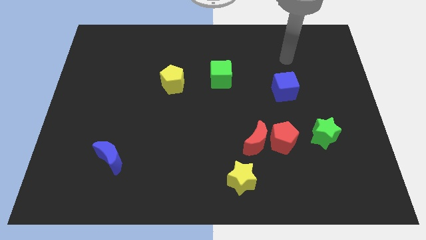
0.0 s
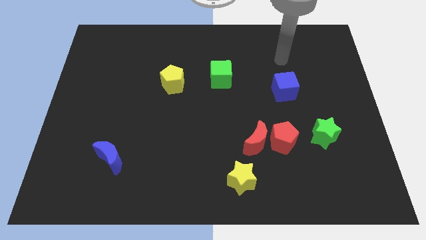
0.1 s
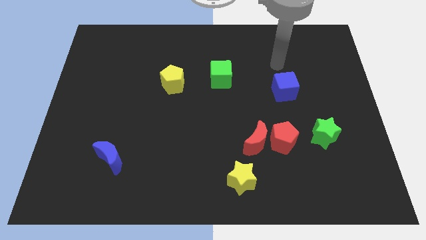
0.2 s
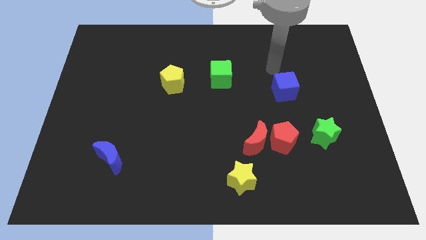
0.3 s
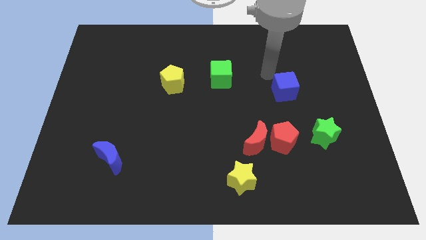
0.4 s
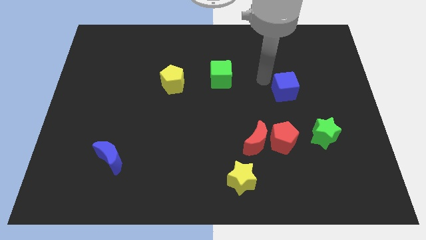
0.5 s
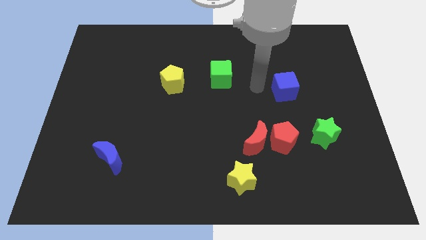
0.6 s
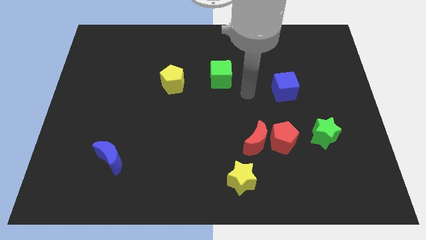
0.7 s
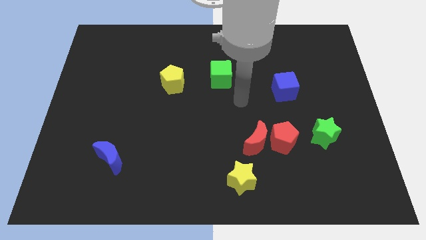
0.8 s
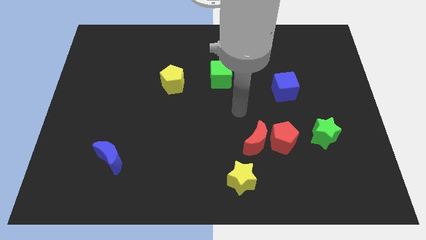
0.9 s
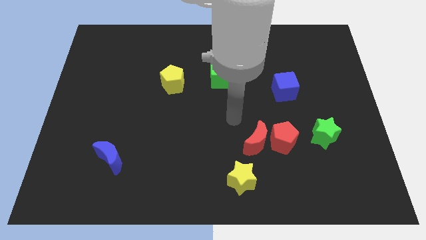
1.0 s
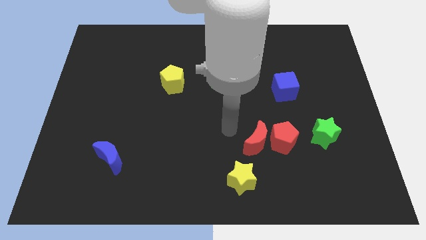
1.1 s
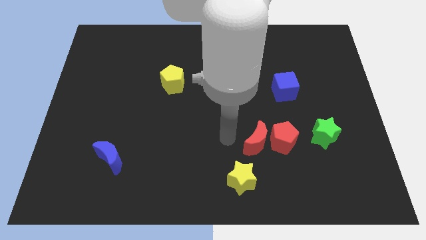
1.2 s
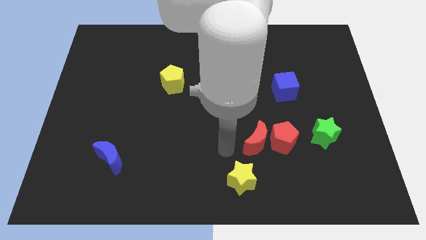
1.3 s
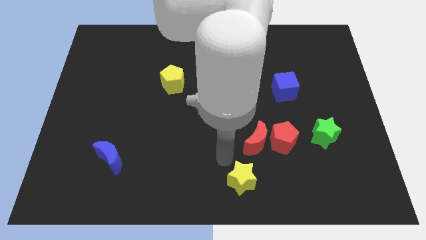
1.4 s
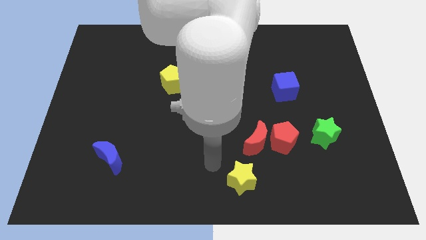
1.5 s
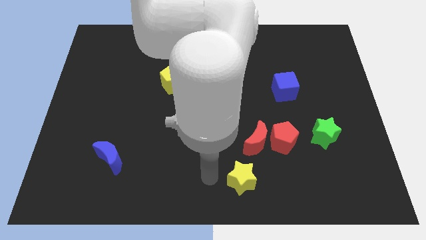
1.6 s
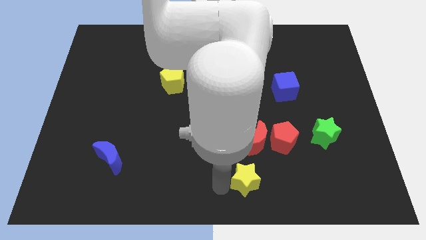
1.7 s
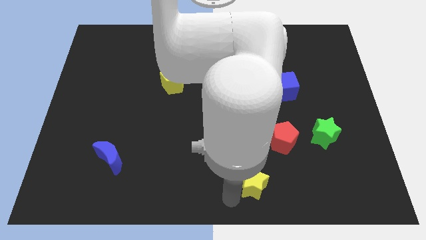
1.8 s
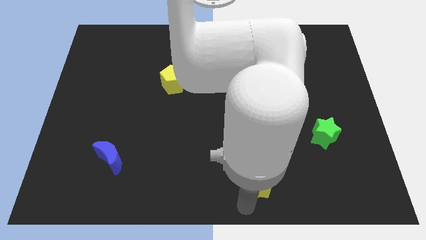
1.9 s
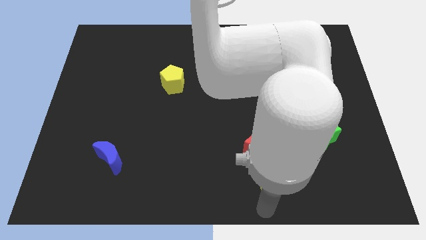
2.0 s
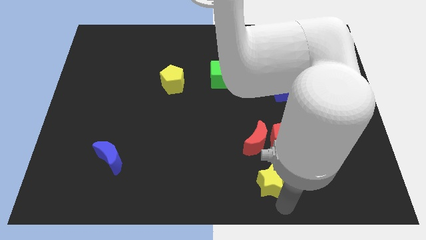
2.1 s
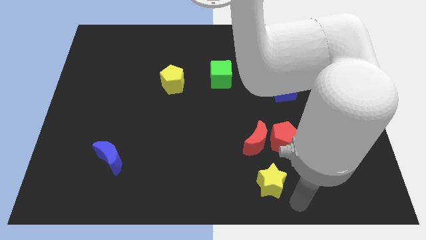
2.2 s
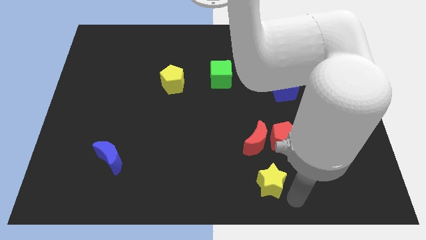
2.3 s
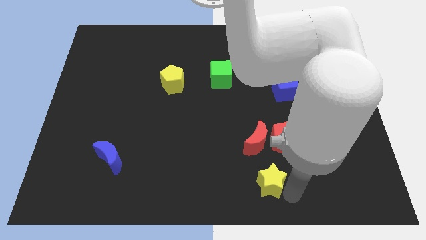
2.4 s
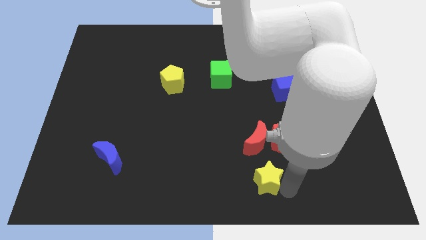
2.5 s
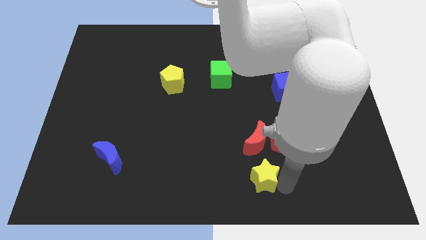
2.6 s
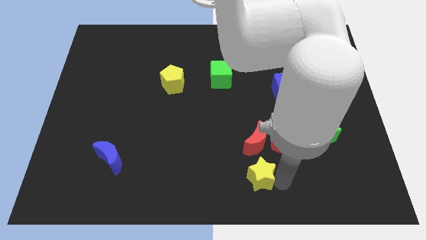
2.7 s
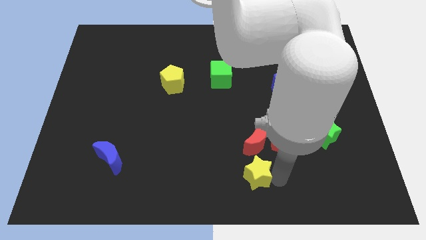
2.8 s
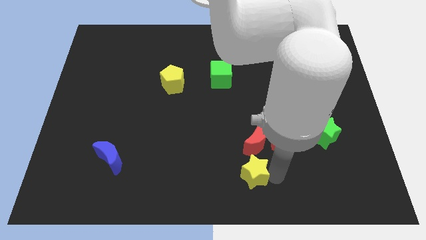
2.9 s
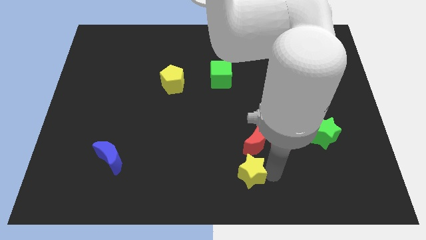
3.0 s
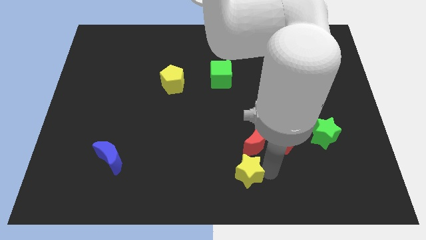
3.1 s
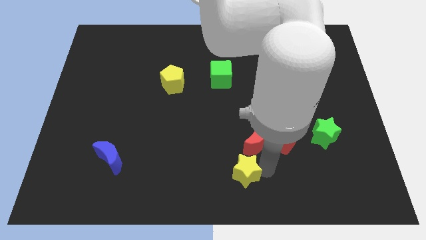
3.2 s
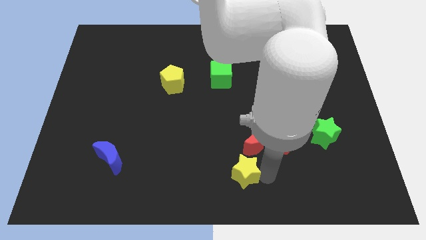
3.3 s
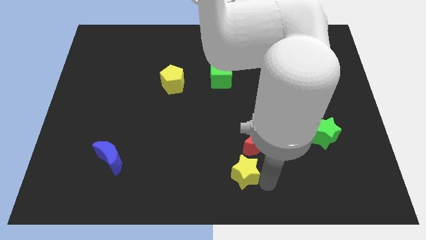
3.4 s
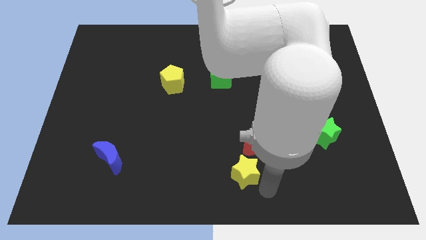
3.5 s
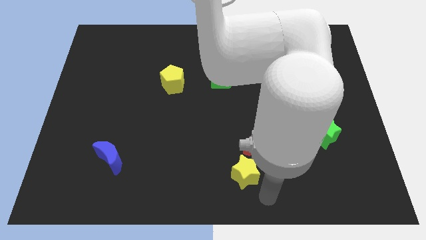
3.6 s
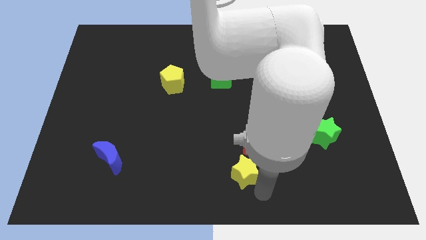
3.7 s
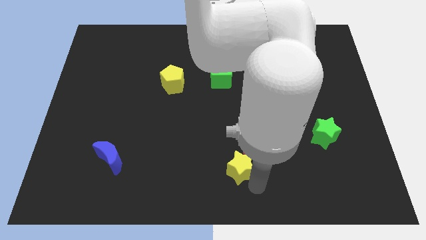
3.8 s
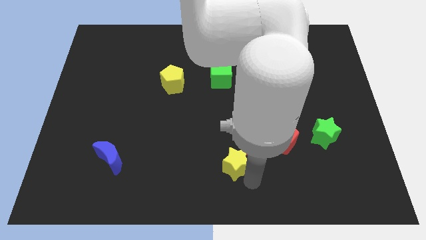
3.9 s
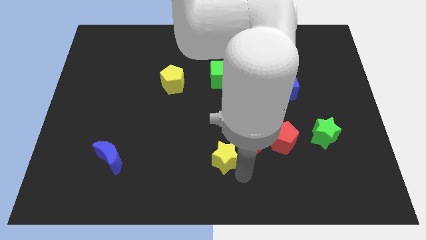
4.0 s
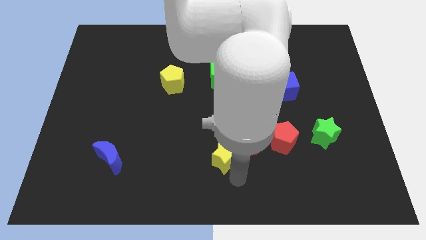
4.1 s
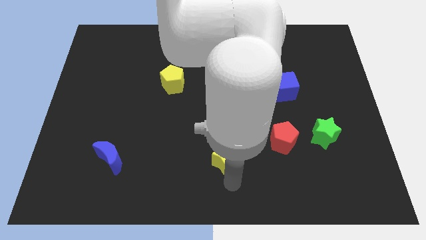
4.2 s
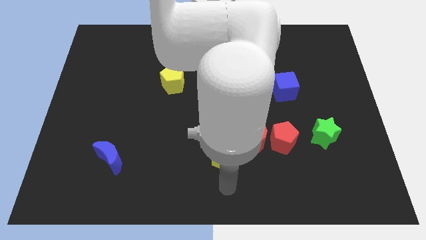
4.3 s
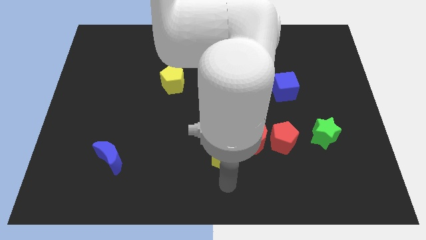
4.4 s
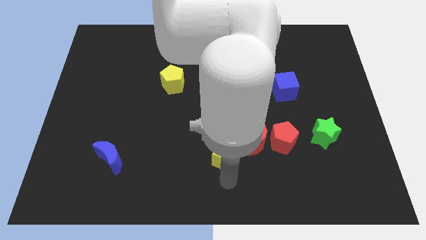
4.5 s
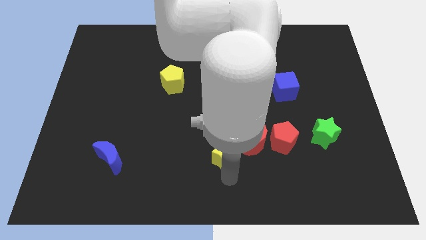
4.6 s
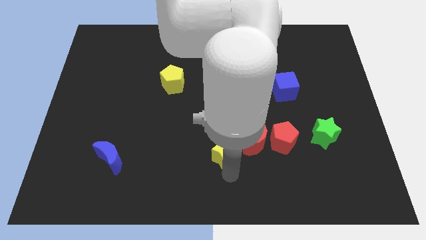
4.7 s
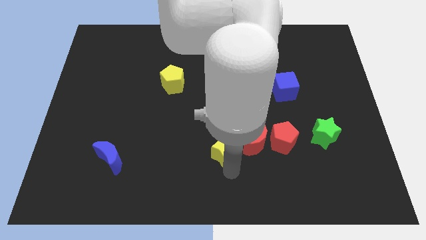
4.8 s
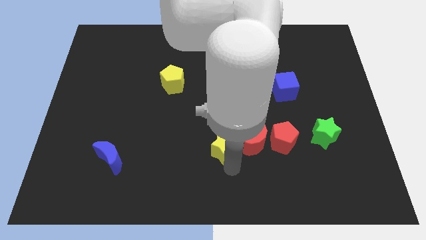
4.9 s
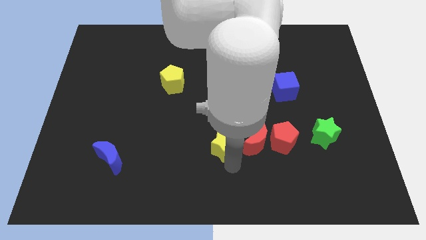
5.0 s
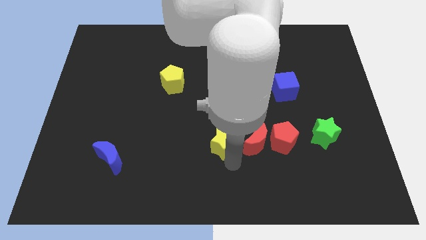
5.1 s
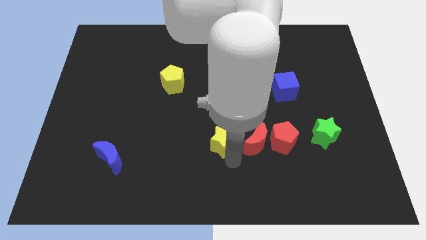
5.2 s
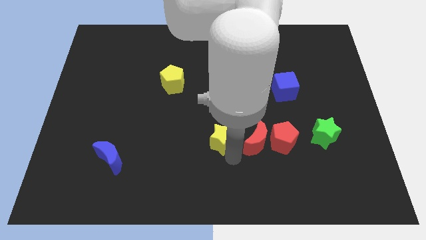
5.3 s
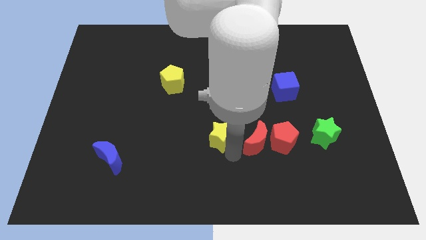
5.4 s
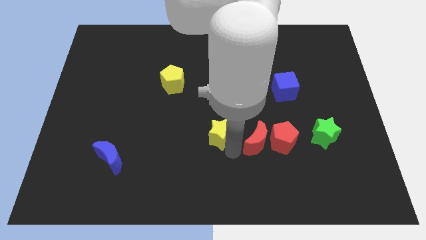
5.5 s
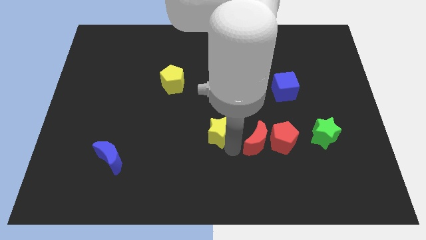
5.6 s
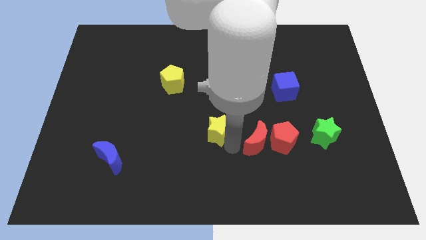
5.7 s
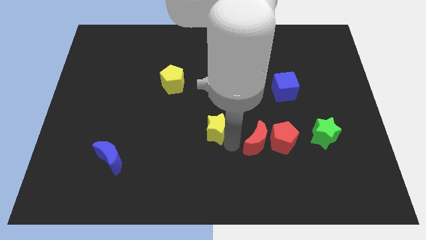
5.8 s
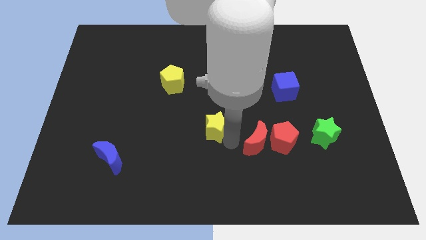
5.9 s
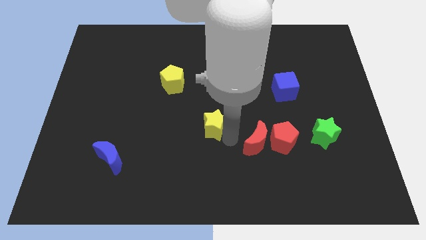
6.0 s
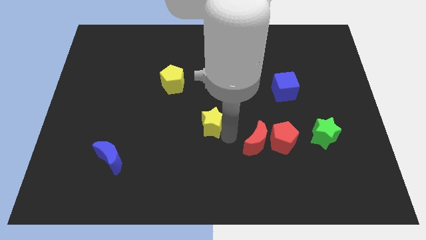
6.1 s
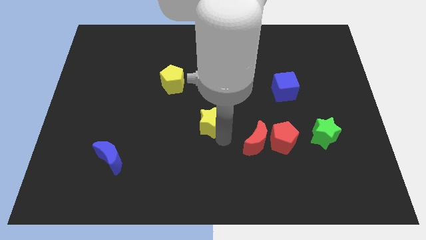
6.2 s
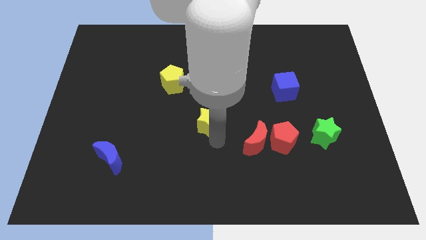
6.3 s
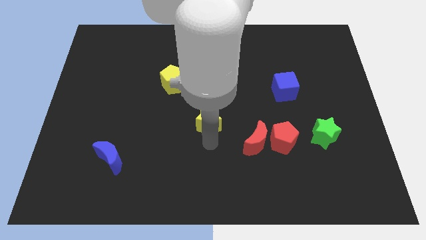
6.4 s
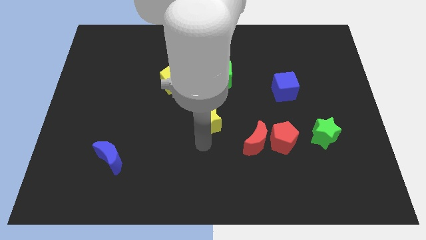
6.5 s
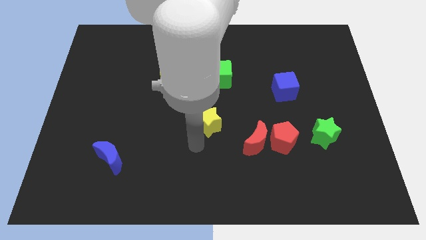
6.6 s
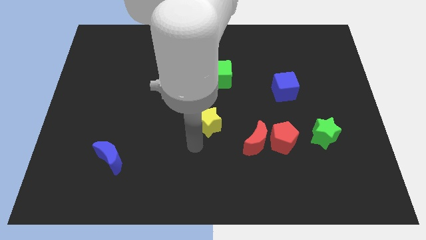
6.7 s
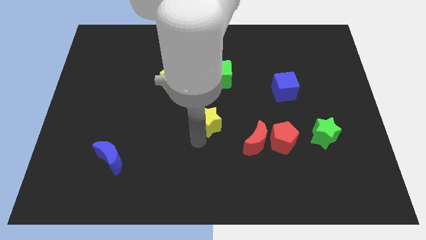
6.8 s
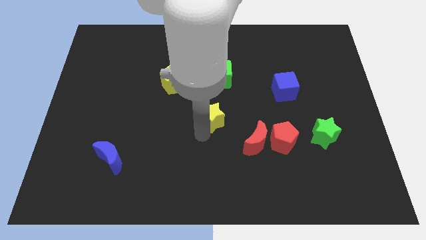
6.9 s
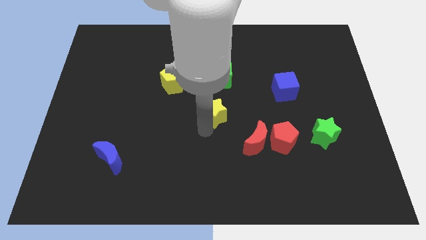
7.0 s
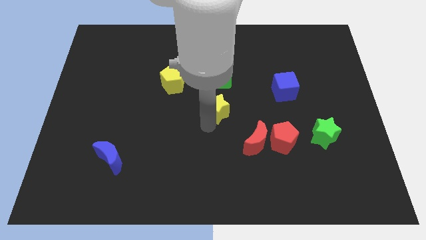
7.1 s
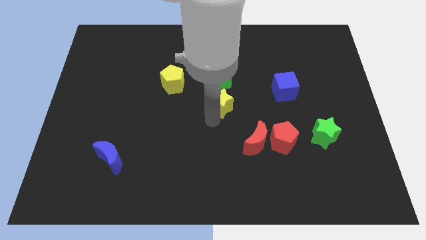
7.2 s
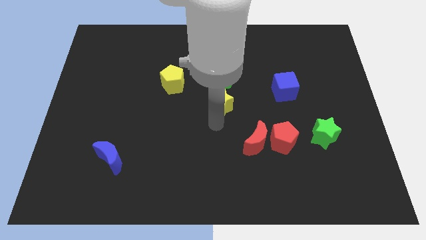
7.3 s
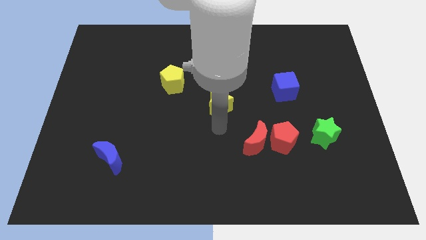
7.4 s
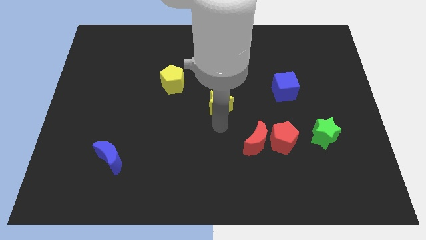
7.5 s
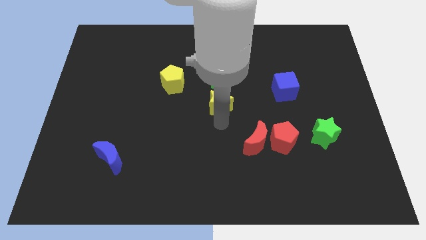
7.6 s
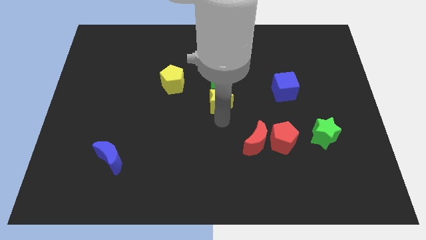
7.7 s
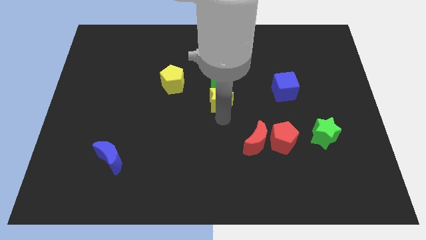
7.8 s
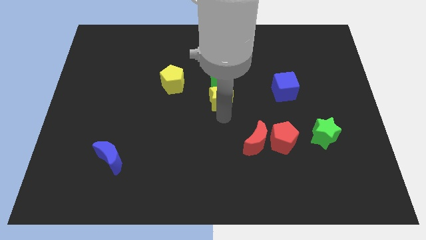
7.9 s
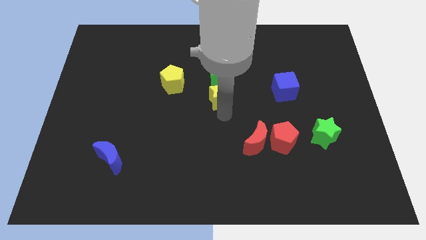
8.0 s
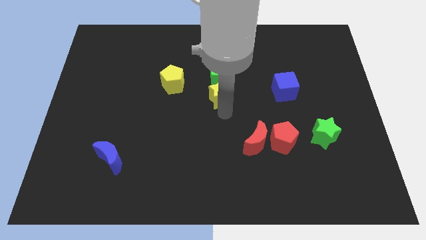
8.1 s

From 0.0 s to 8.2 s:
move the yellow star close to the green cube
